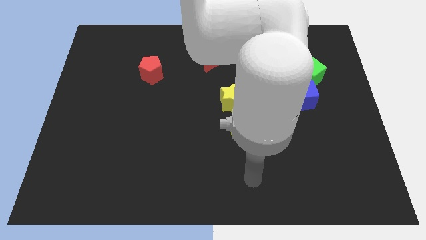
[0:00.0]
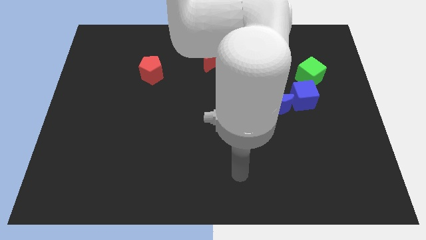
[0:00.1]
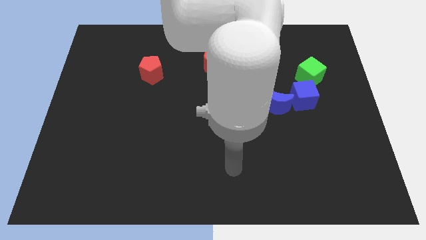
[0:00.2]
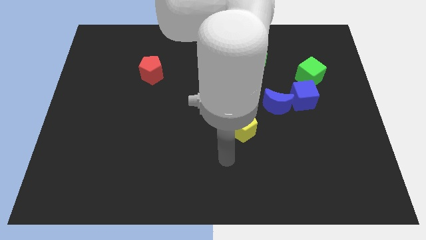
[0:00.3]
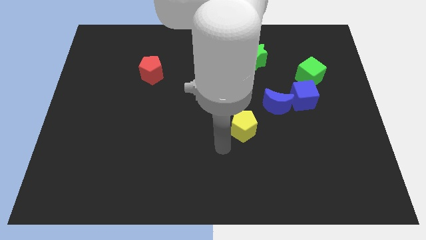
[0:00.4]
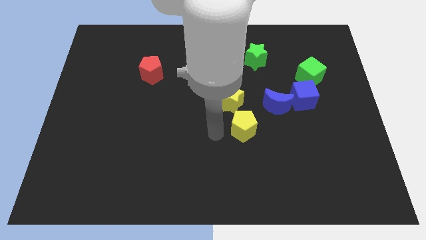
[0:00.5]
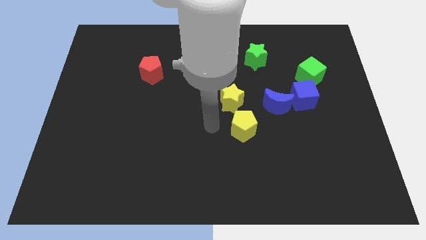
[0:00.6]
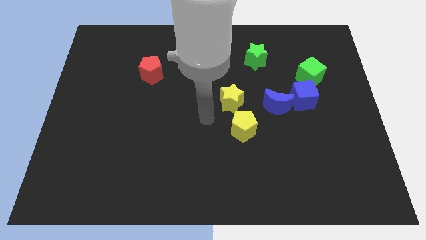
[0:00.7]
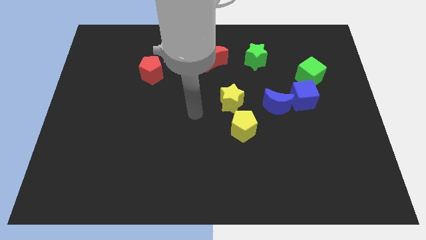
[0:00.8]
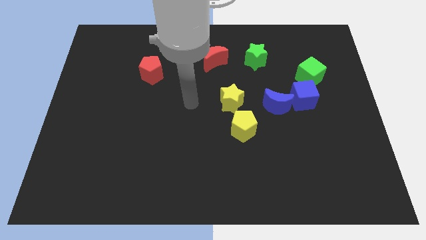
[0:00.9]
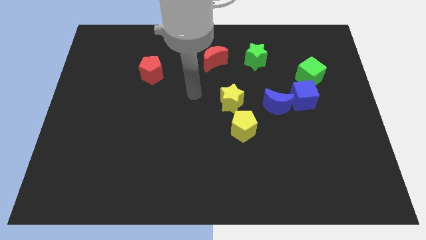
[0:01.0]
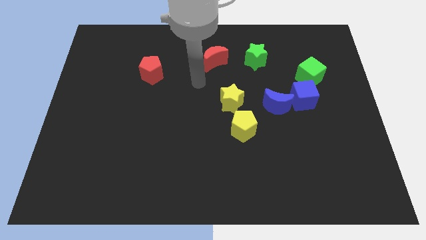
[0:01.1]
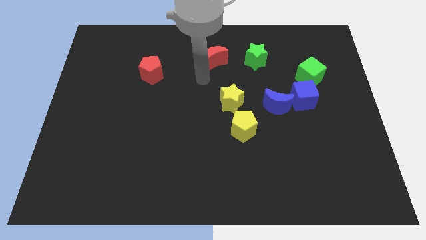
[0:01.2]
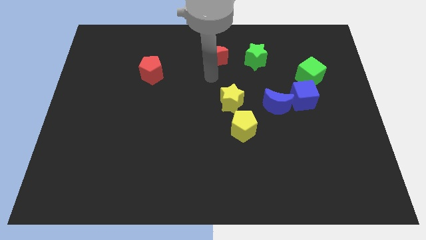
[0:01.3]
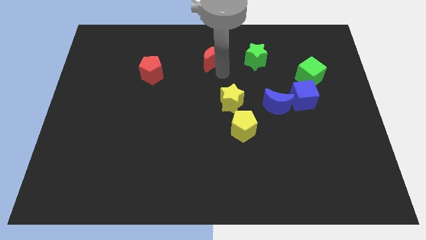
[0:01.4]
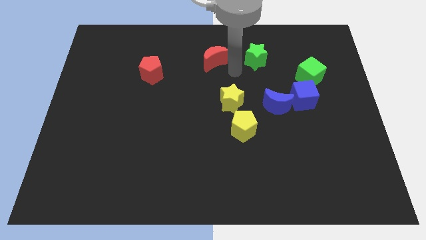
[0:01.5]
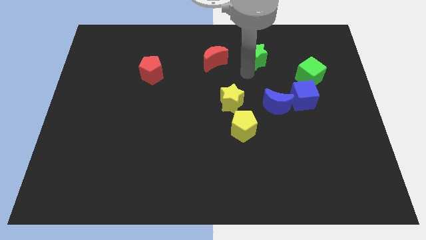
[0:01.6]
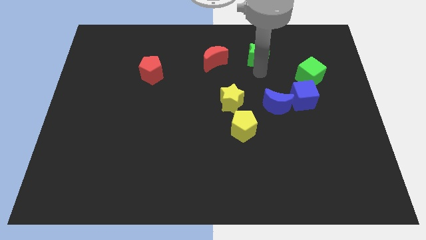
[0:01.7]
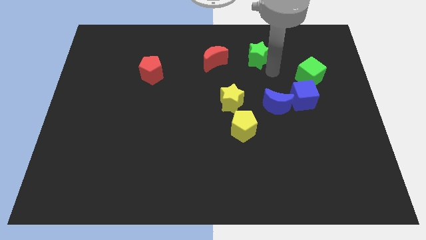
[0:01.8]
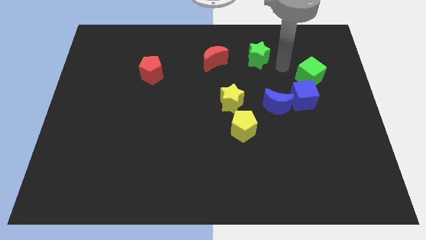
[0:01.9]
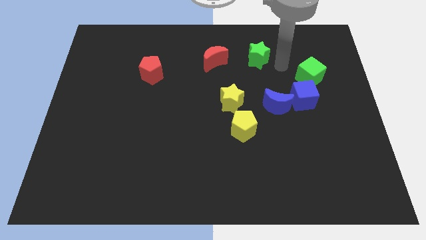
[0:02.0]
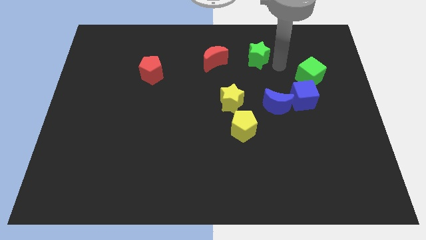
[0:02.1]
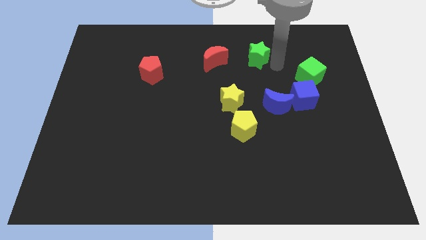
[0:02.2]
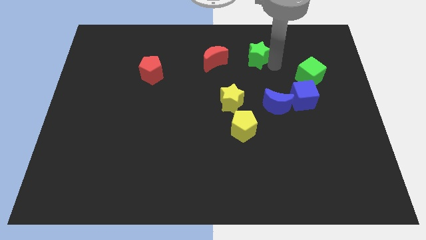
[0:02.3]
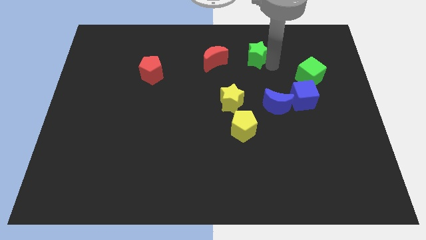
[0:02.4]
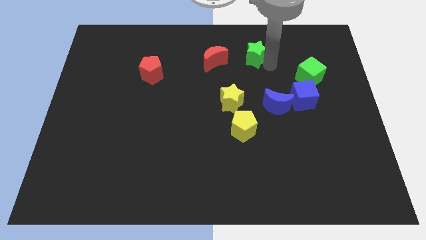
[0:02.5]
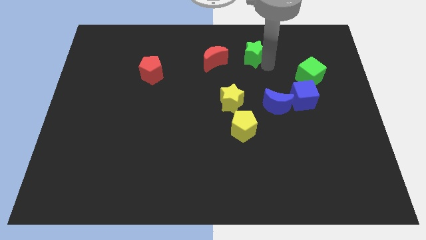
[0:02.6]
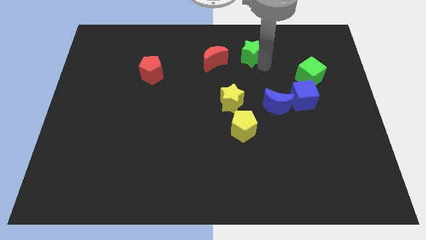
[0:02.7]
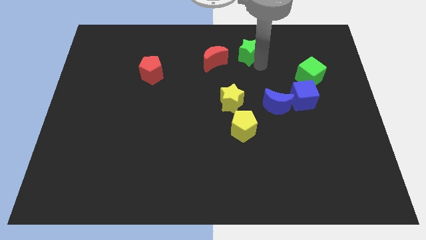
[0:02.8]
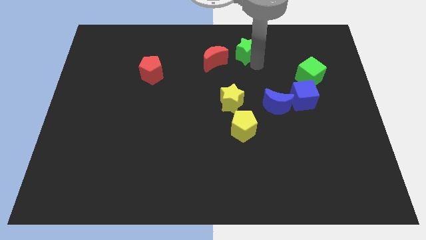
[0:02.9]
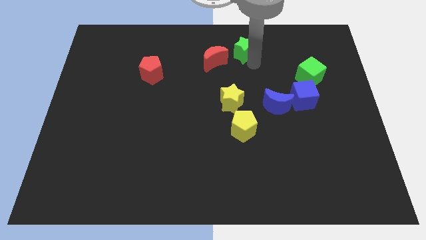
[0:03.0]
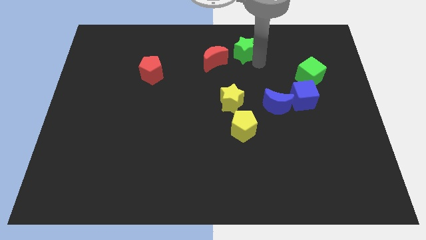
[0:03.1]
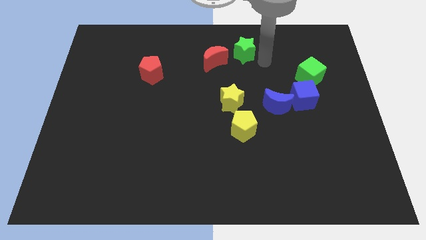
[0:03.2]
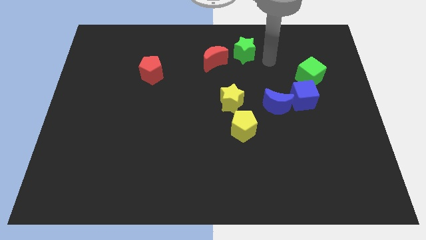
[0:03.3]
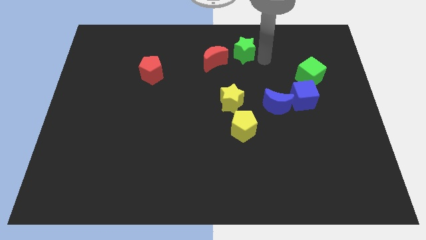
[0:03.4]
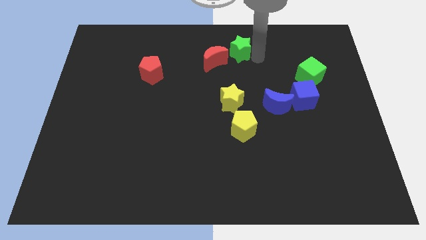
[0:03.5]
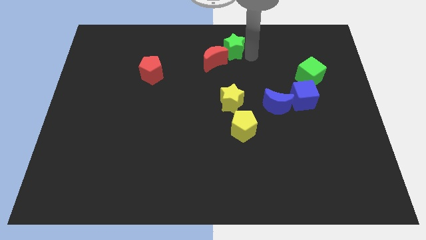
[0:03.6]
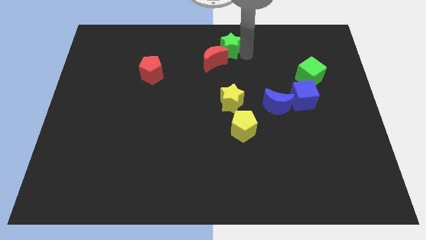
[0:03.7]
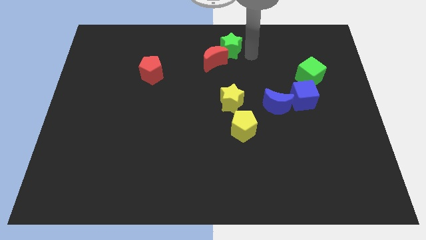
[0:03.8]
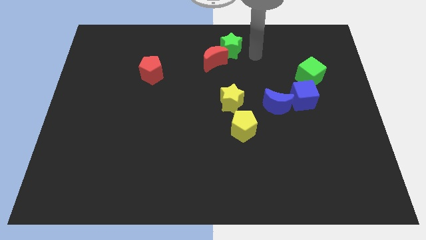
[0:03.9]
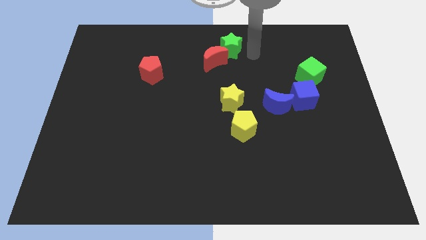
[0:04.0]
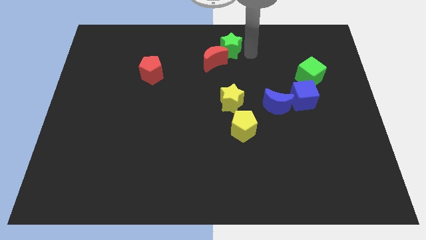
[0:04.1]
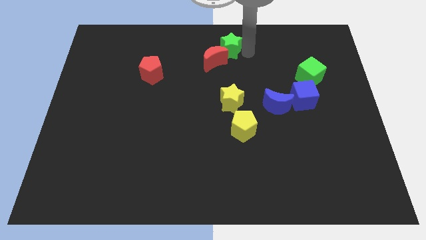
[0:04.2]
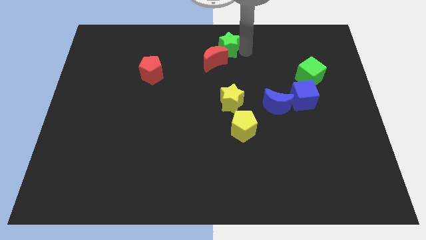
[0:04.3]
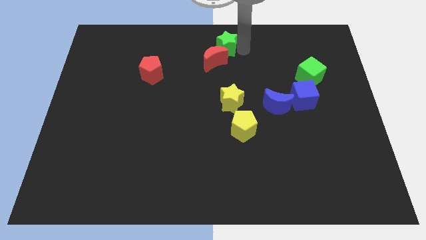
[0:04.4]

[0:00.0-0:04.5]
slide the green star a little bit to the left

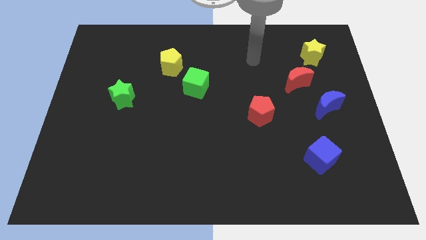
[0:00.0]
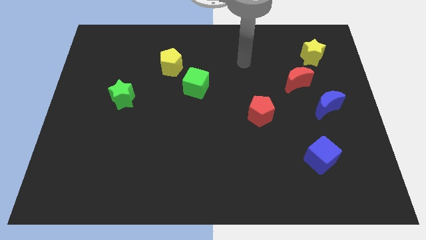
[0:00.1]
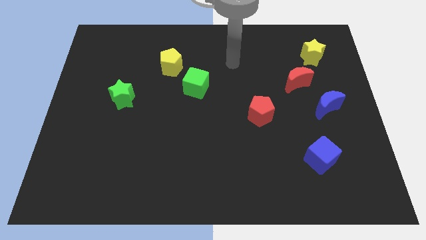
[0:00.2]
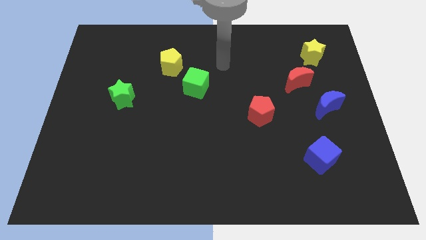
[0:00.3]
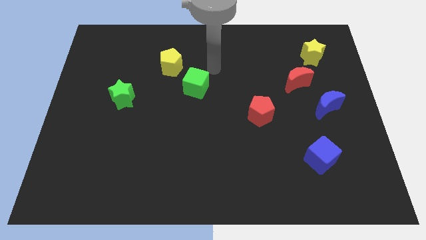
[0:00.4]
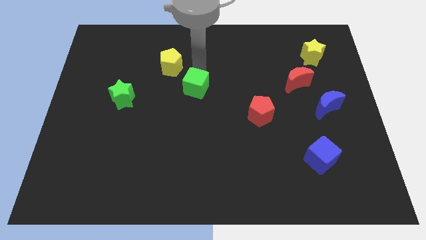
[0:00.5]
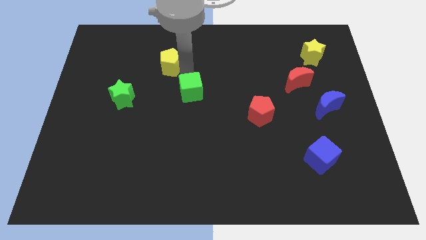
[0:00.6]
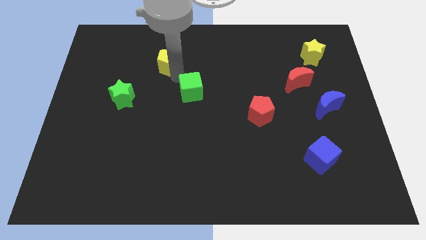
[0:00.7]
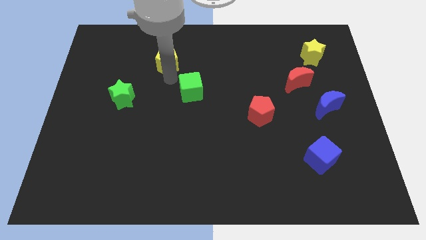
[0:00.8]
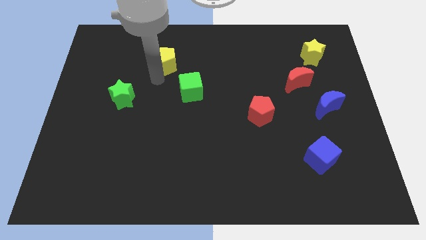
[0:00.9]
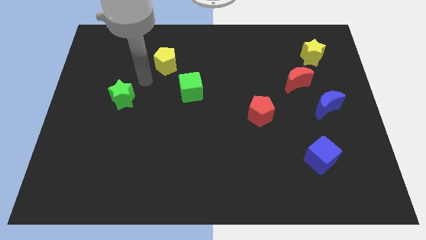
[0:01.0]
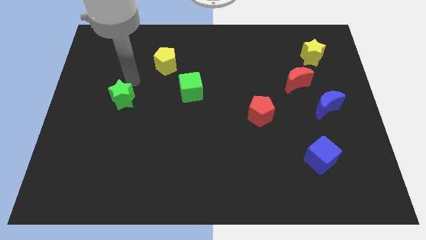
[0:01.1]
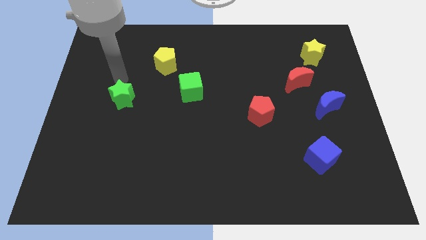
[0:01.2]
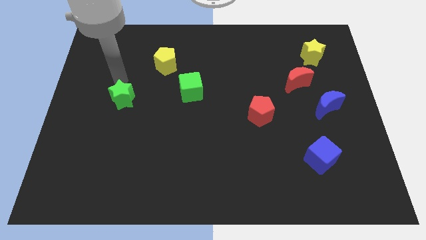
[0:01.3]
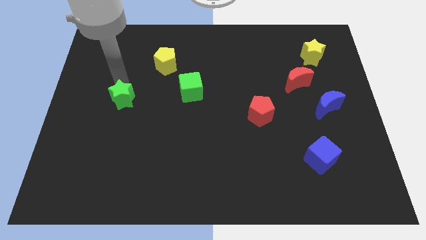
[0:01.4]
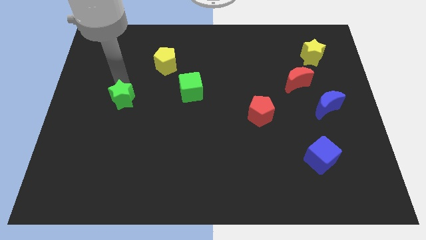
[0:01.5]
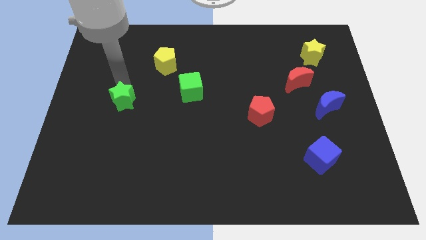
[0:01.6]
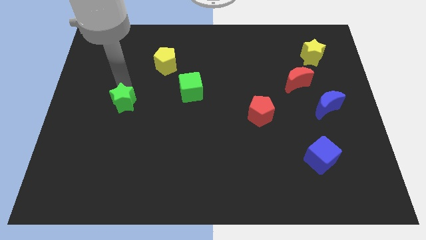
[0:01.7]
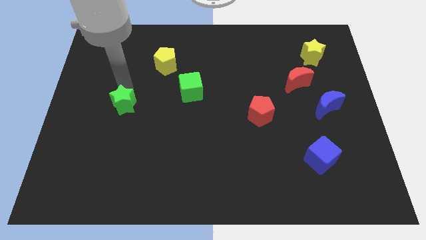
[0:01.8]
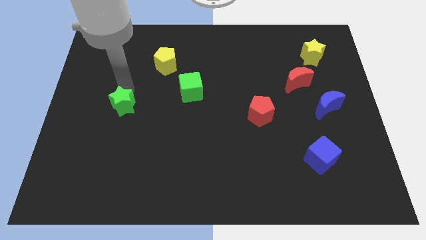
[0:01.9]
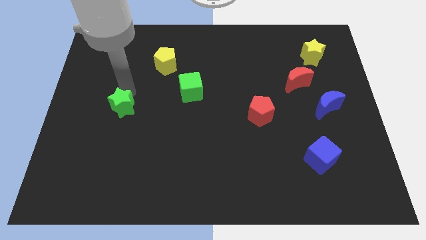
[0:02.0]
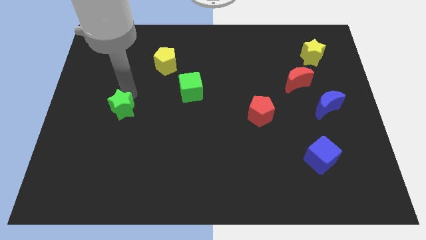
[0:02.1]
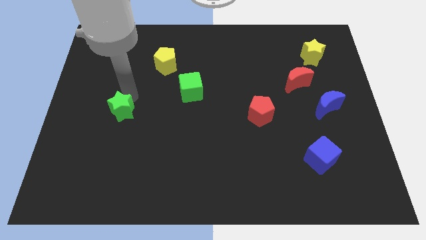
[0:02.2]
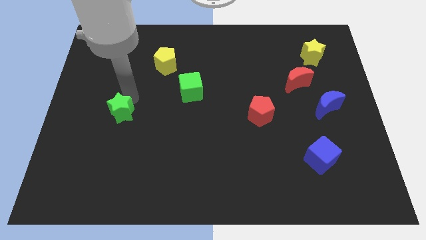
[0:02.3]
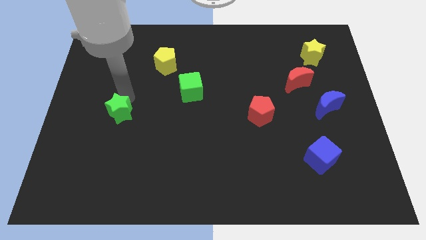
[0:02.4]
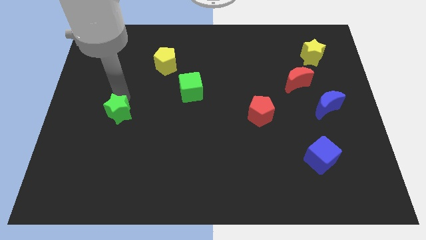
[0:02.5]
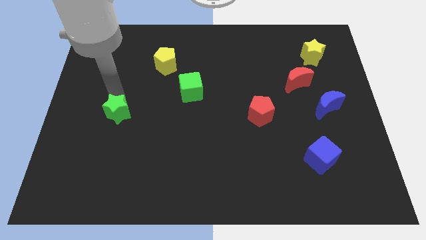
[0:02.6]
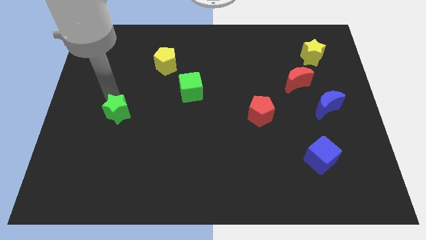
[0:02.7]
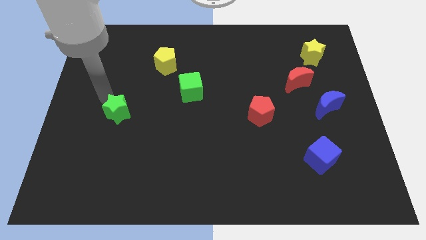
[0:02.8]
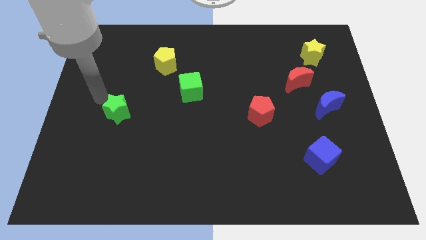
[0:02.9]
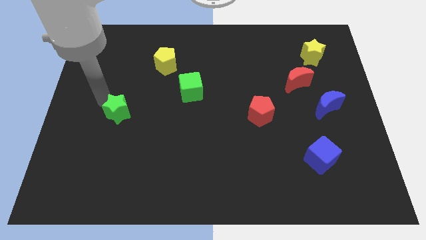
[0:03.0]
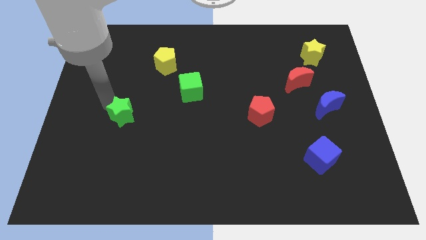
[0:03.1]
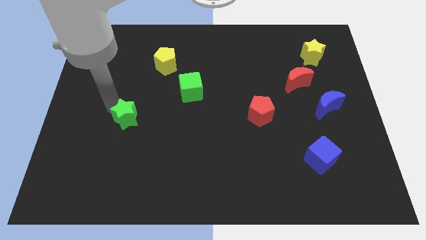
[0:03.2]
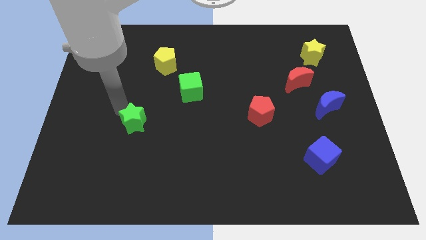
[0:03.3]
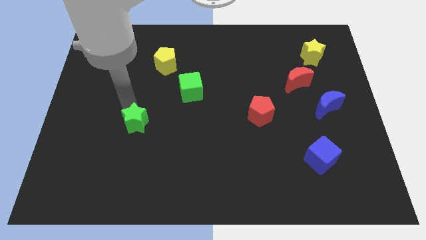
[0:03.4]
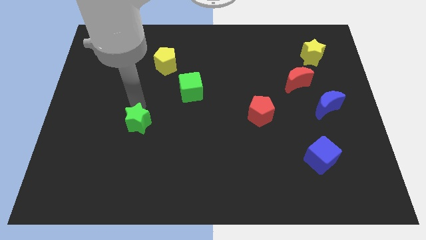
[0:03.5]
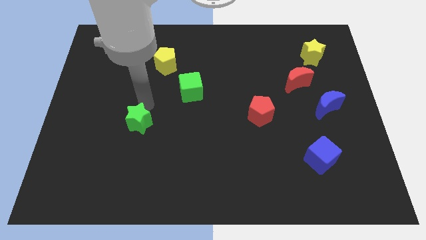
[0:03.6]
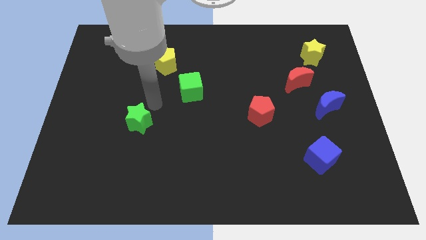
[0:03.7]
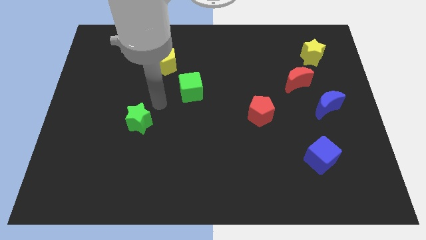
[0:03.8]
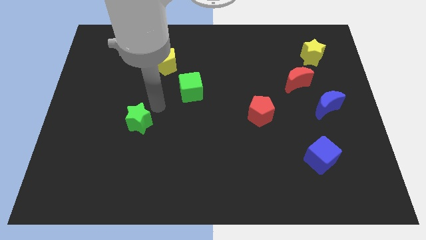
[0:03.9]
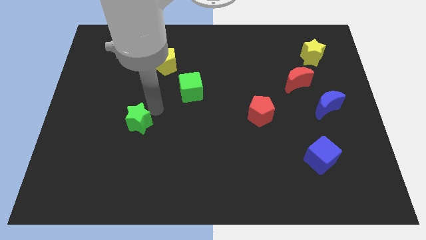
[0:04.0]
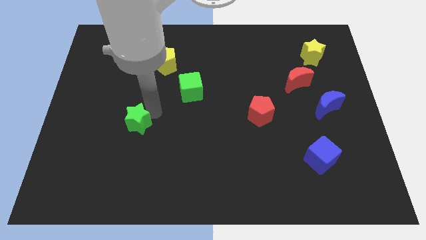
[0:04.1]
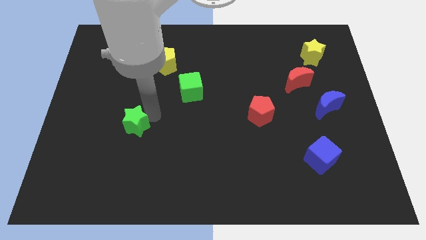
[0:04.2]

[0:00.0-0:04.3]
move the green star slightly downwards
